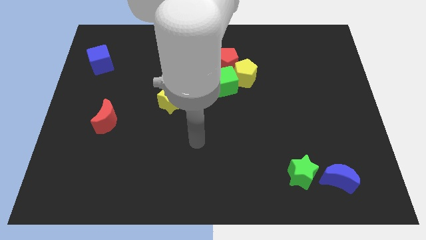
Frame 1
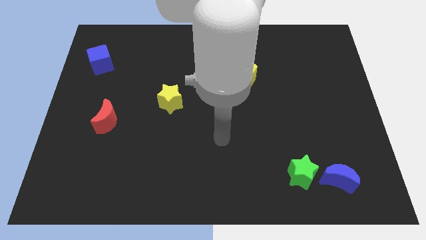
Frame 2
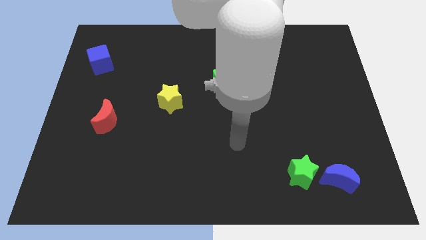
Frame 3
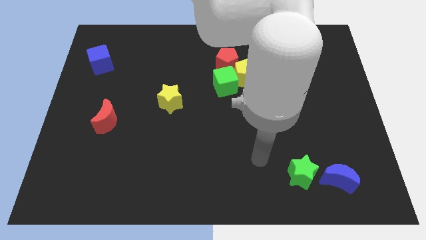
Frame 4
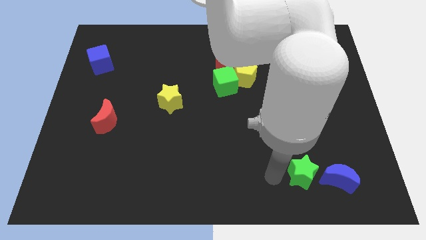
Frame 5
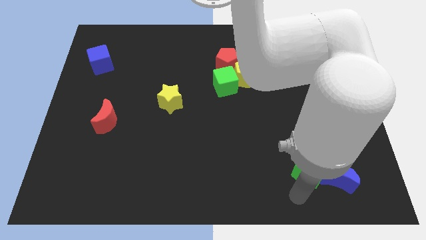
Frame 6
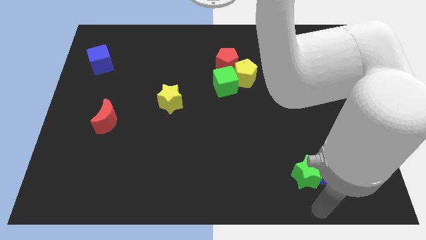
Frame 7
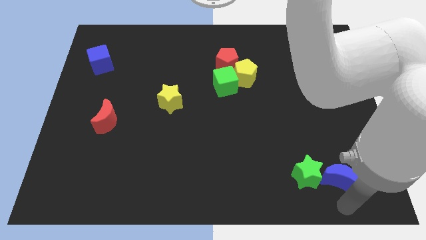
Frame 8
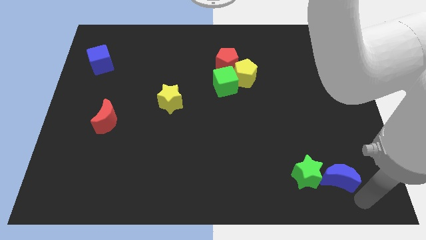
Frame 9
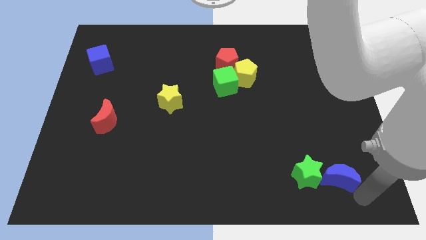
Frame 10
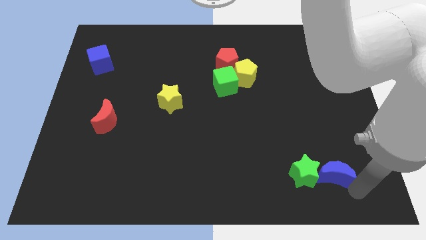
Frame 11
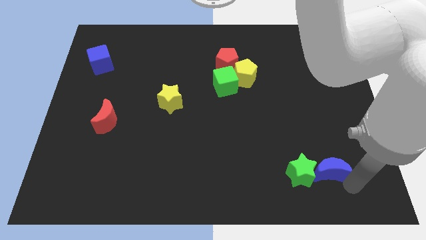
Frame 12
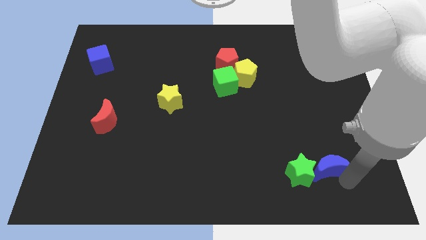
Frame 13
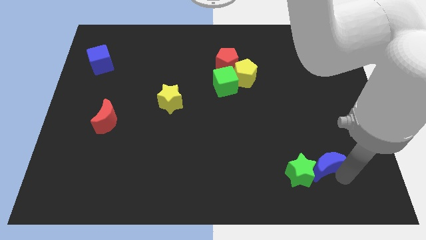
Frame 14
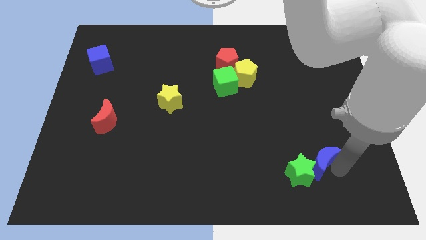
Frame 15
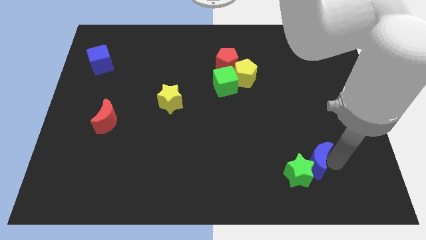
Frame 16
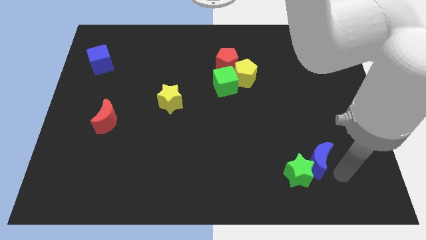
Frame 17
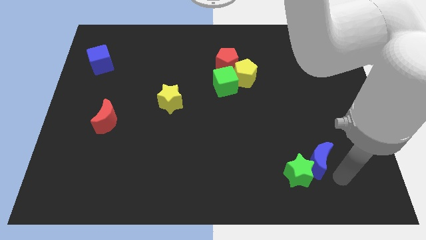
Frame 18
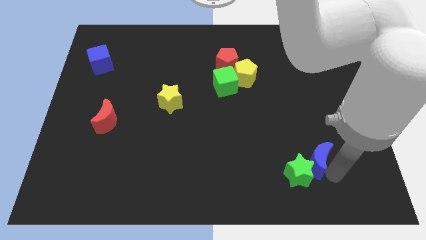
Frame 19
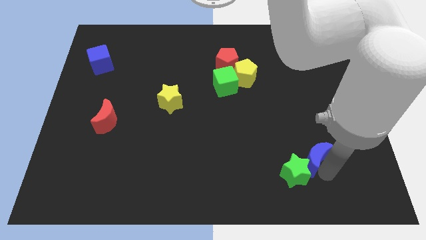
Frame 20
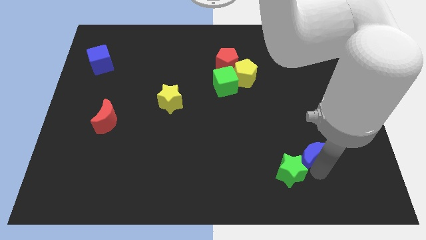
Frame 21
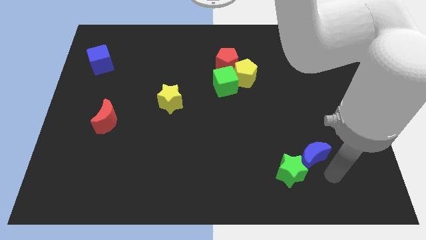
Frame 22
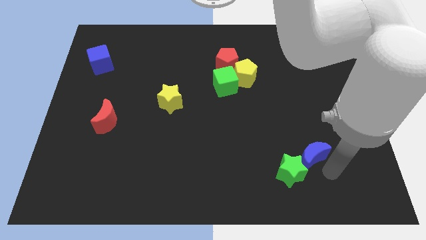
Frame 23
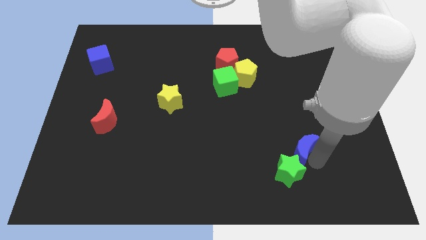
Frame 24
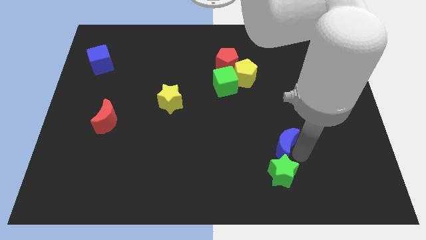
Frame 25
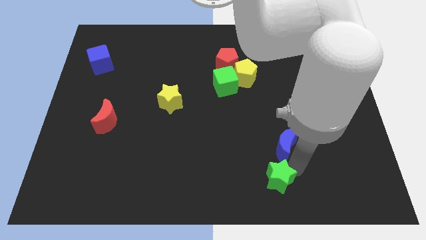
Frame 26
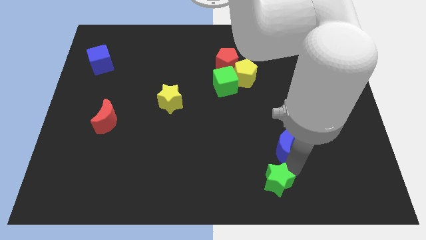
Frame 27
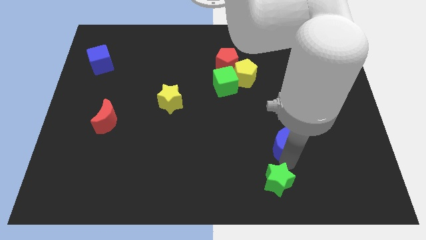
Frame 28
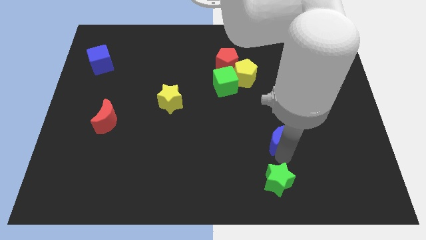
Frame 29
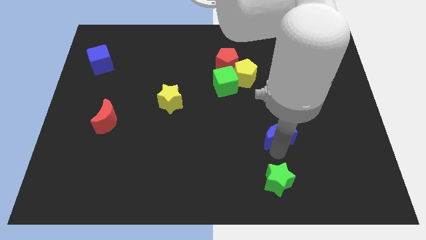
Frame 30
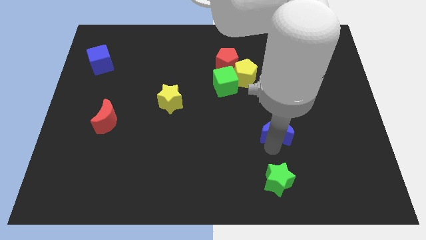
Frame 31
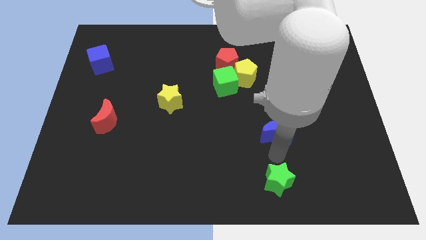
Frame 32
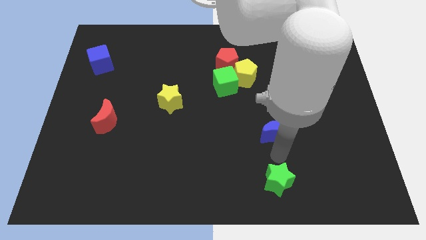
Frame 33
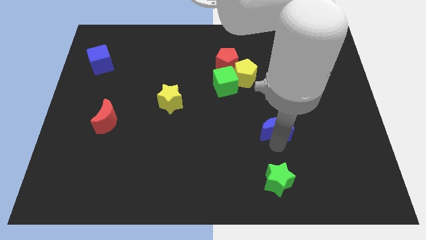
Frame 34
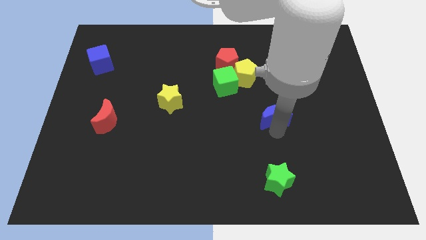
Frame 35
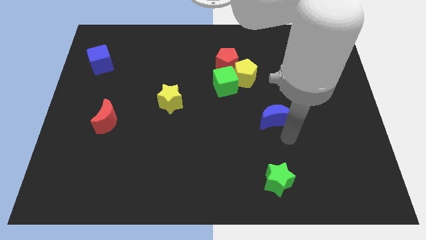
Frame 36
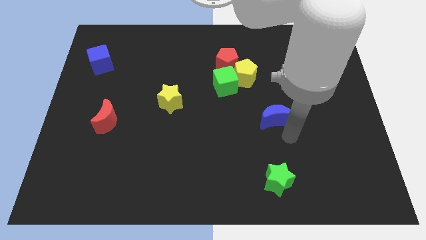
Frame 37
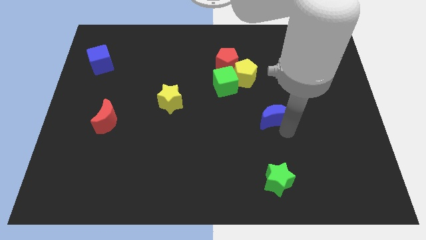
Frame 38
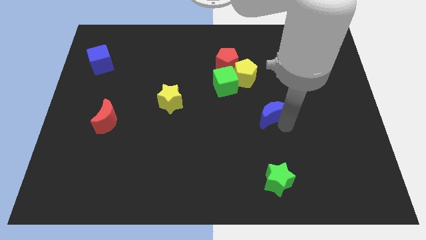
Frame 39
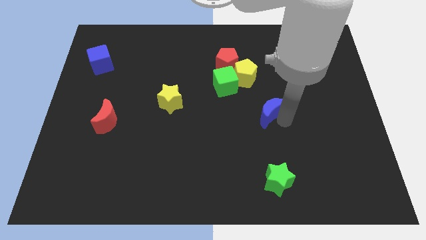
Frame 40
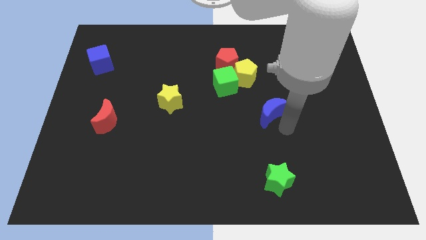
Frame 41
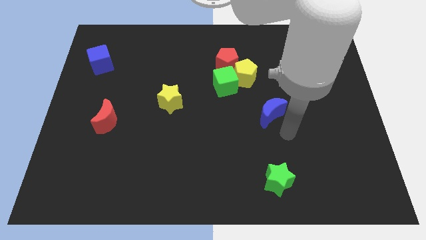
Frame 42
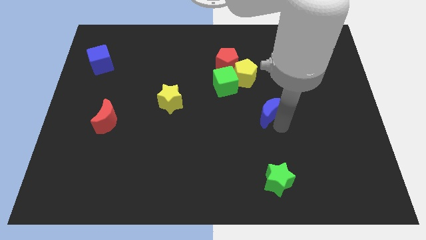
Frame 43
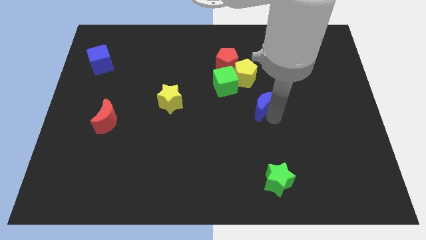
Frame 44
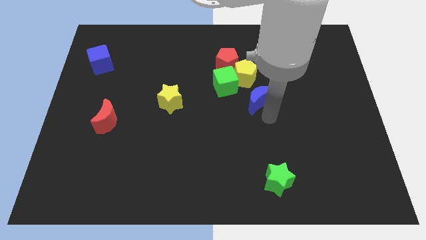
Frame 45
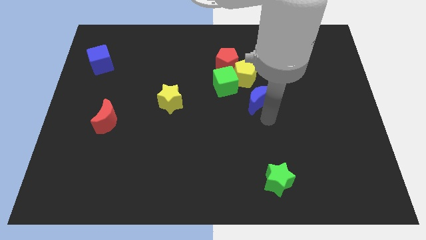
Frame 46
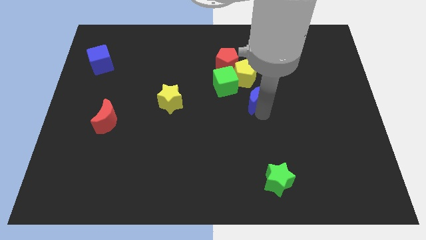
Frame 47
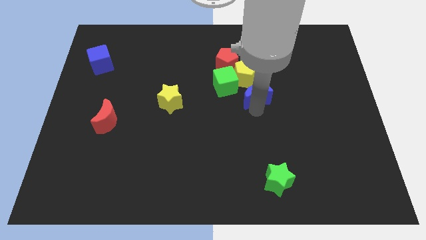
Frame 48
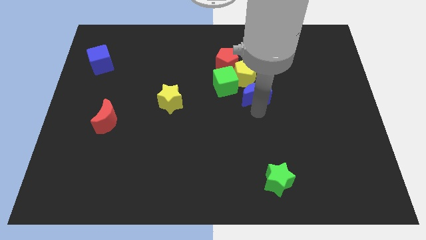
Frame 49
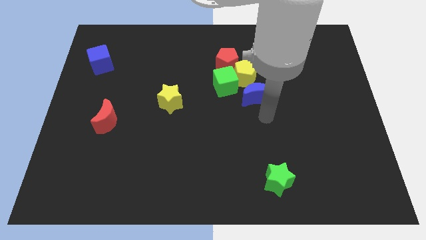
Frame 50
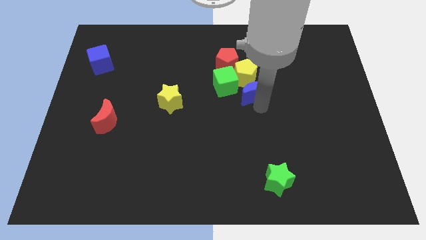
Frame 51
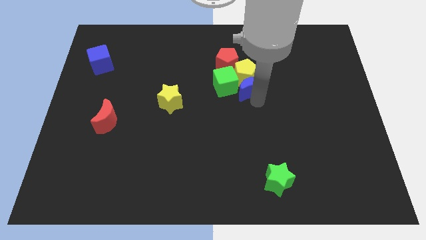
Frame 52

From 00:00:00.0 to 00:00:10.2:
push the blue moon to the yellow pentagon

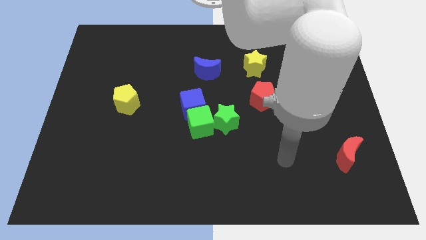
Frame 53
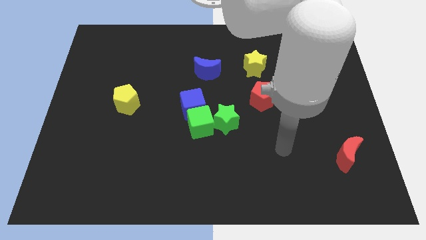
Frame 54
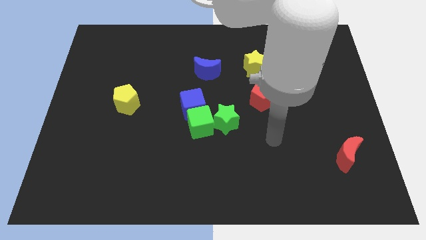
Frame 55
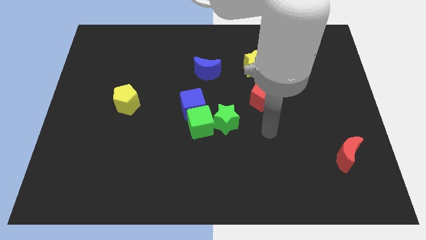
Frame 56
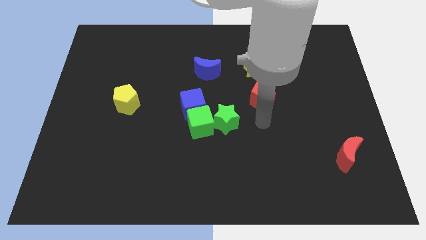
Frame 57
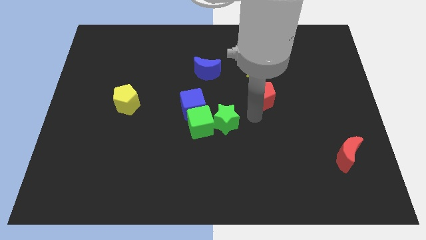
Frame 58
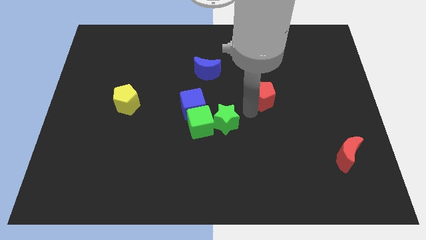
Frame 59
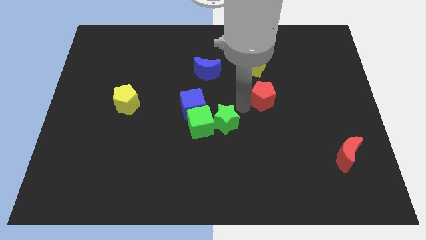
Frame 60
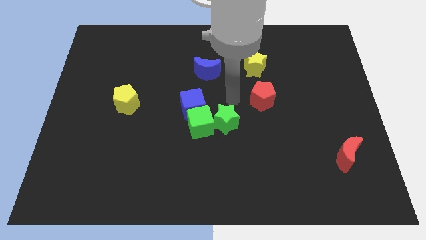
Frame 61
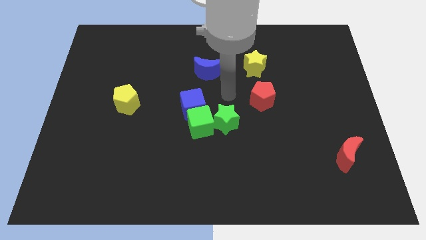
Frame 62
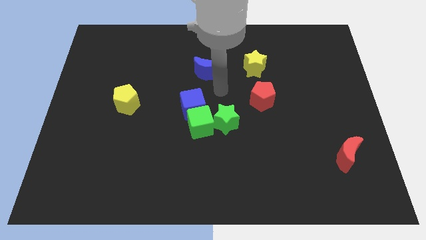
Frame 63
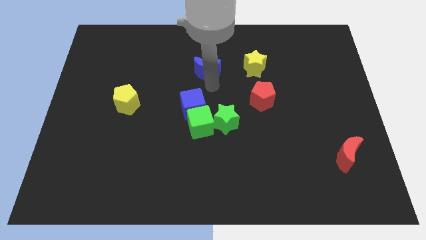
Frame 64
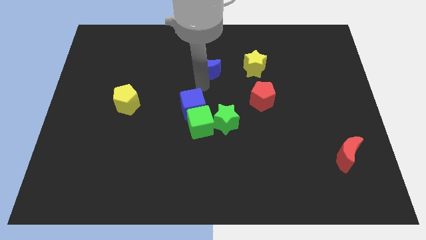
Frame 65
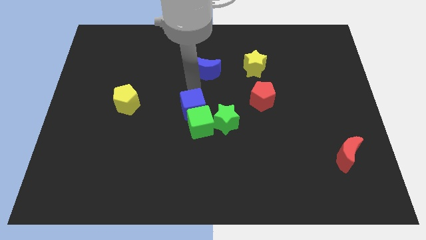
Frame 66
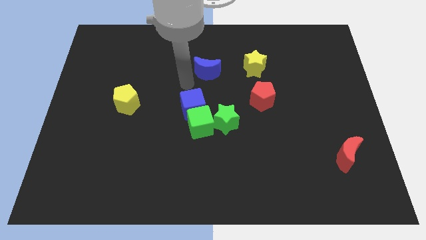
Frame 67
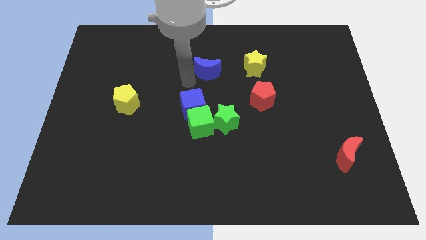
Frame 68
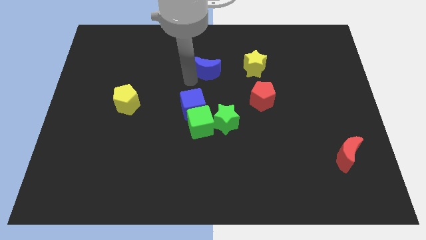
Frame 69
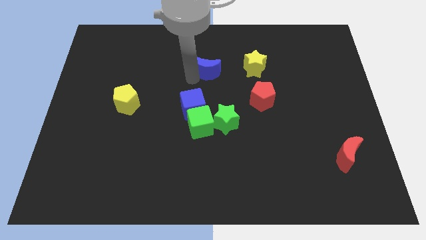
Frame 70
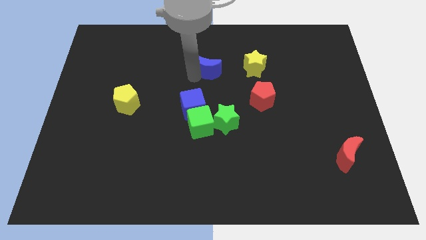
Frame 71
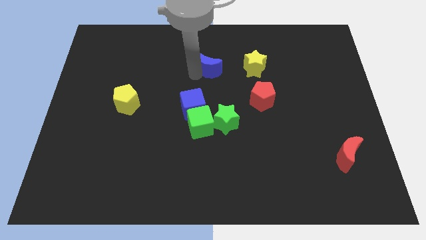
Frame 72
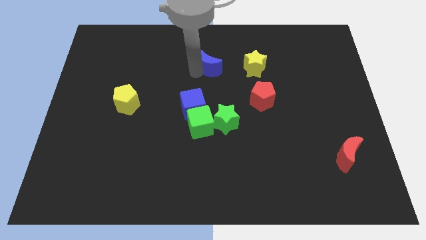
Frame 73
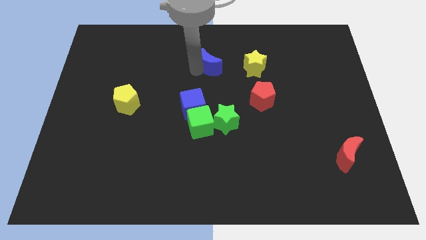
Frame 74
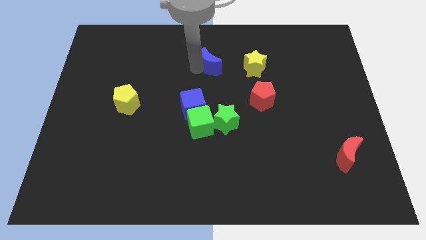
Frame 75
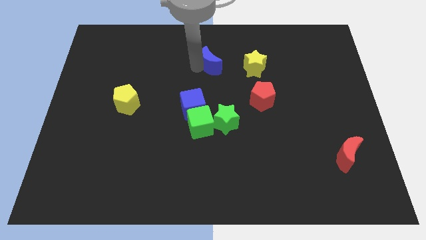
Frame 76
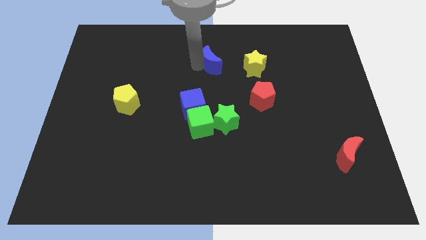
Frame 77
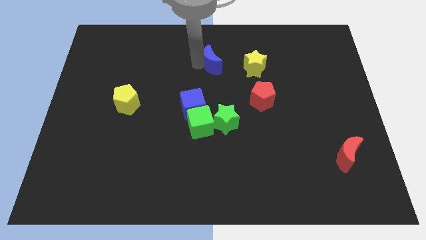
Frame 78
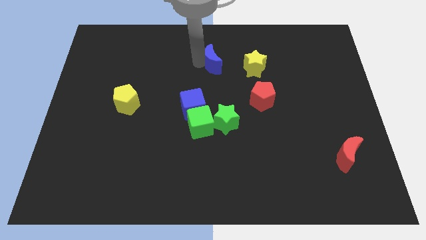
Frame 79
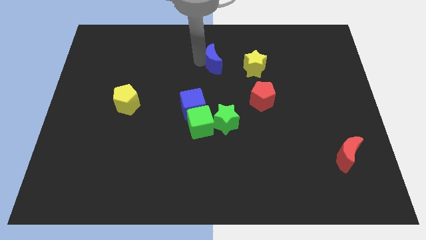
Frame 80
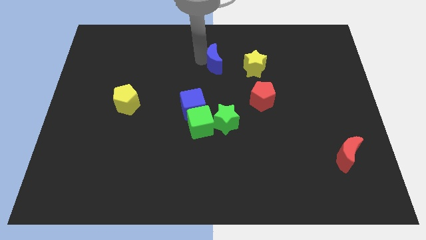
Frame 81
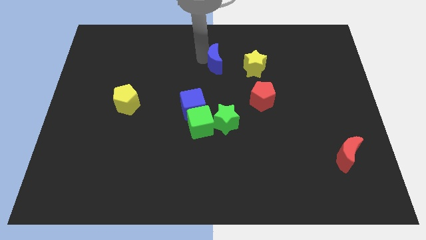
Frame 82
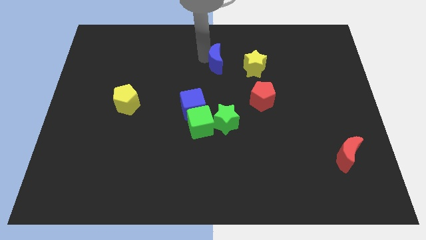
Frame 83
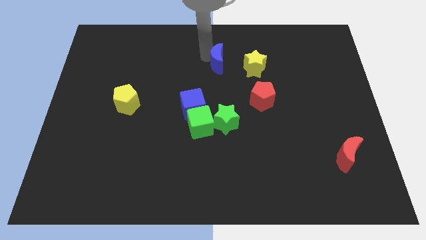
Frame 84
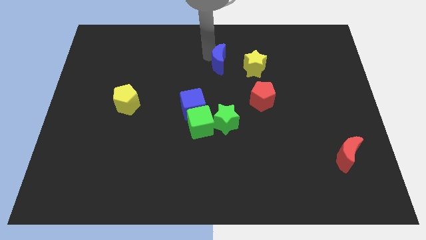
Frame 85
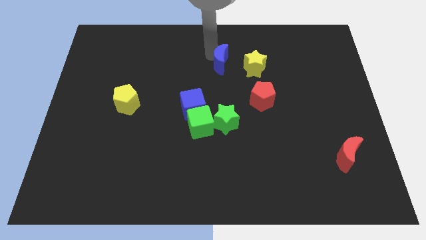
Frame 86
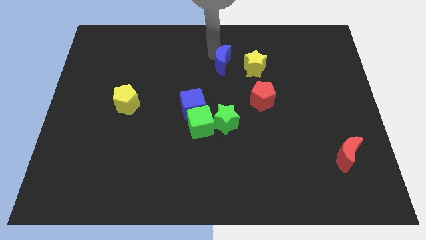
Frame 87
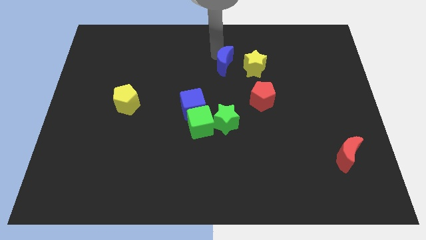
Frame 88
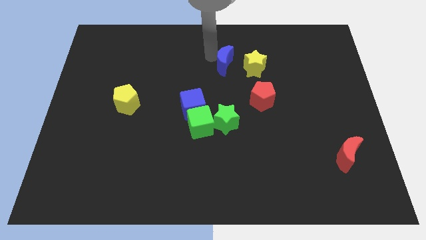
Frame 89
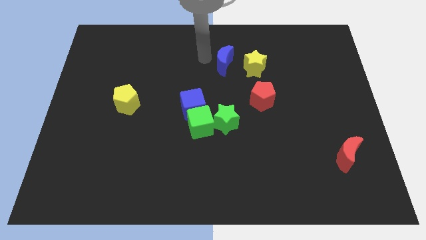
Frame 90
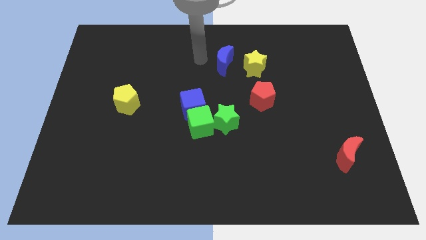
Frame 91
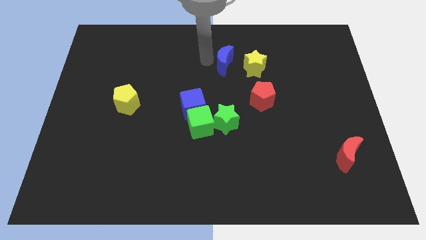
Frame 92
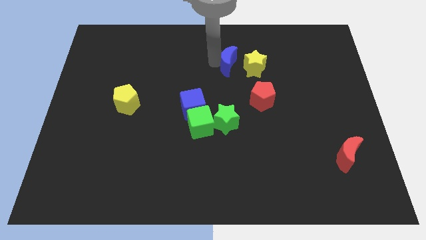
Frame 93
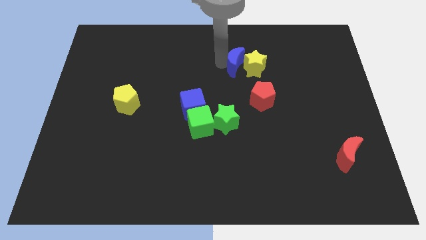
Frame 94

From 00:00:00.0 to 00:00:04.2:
move the blue moon close to the yellow star
